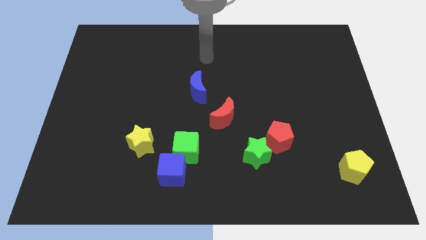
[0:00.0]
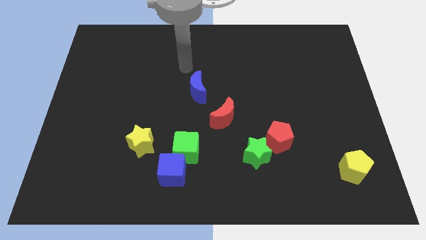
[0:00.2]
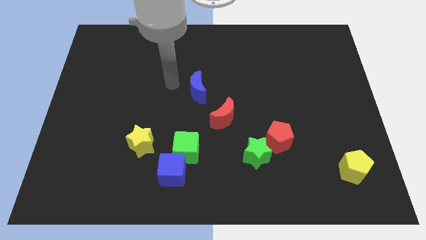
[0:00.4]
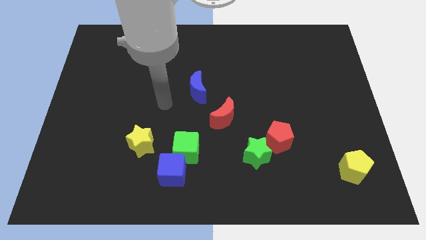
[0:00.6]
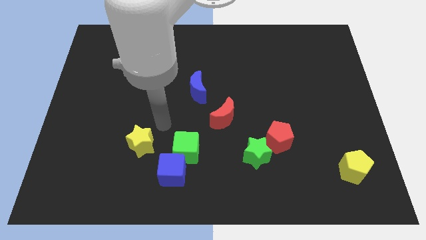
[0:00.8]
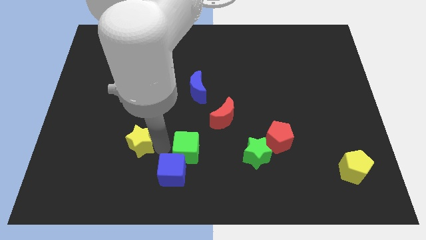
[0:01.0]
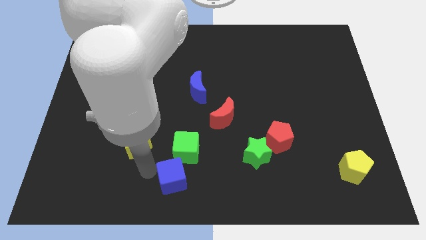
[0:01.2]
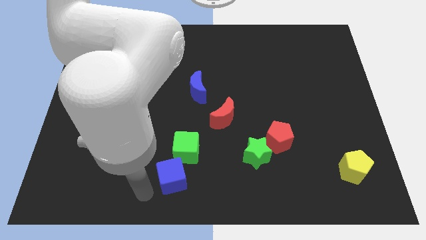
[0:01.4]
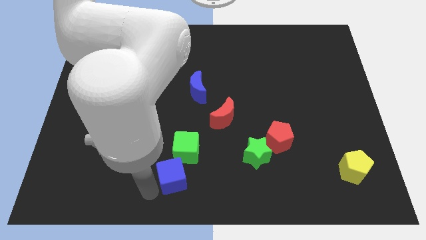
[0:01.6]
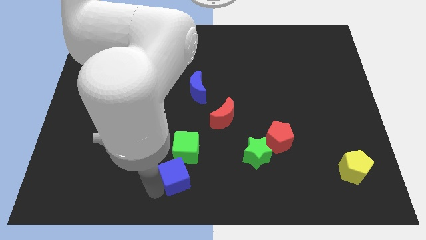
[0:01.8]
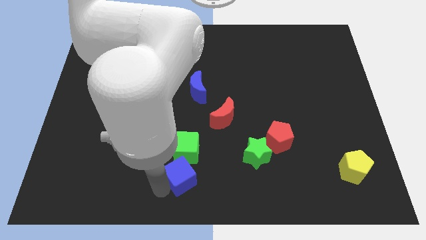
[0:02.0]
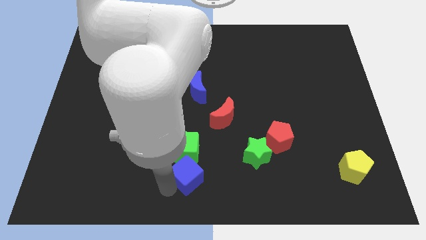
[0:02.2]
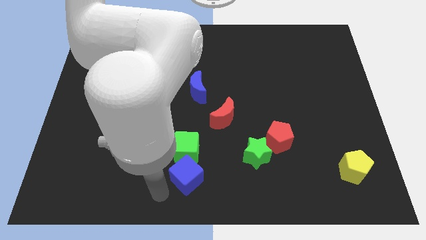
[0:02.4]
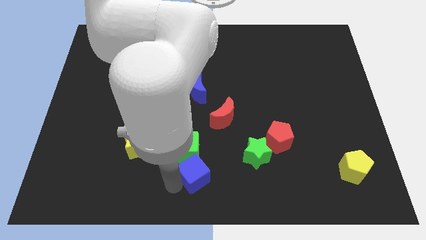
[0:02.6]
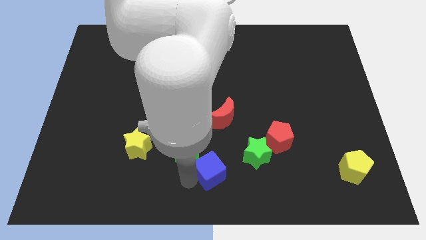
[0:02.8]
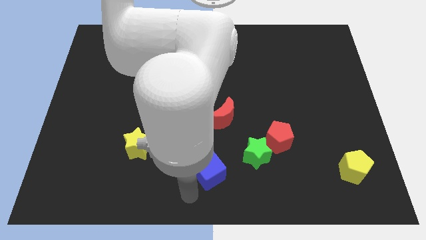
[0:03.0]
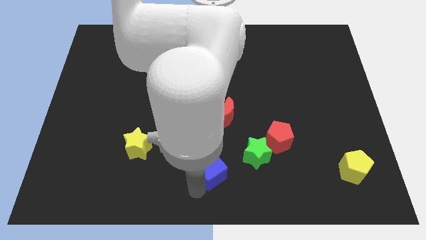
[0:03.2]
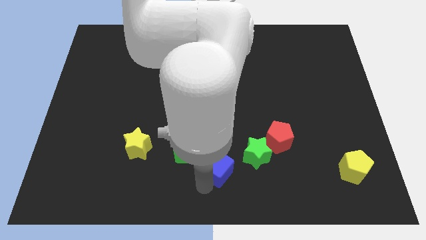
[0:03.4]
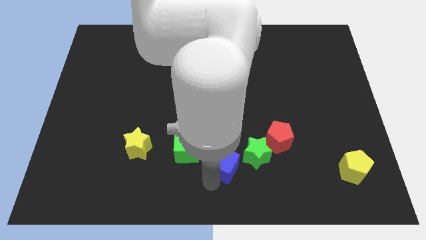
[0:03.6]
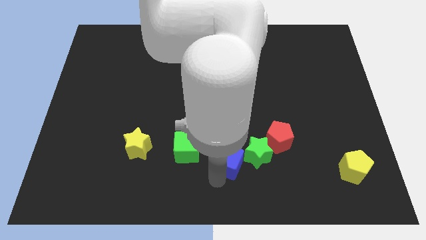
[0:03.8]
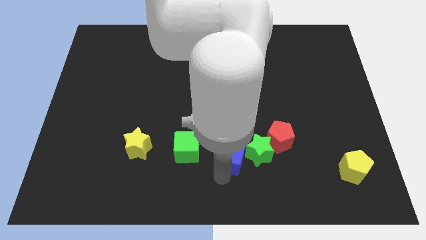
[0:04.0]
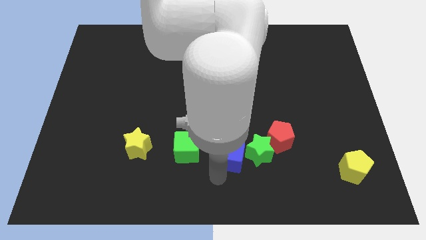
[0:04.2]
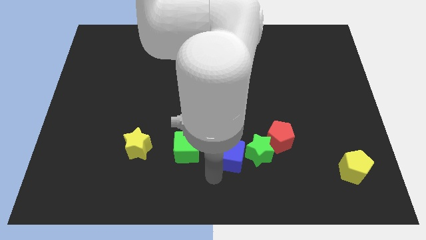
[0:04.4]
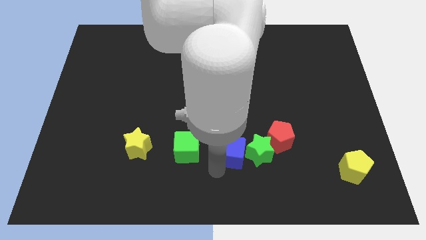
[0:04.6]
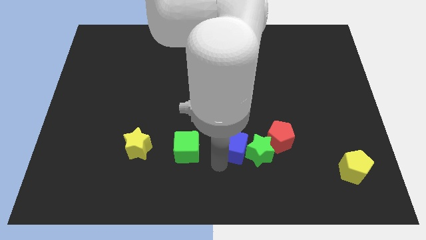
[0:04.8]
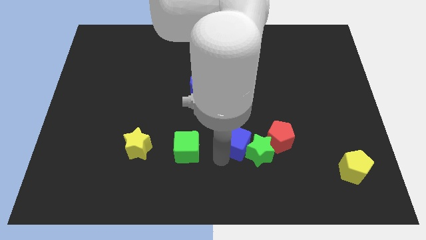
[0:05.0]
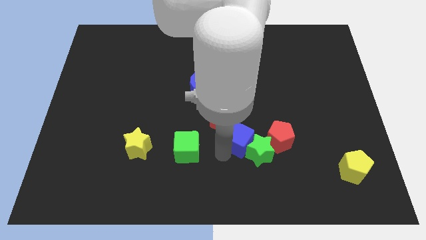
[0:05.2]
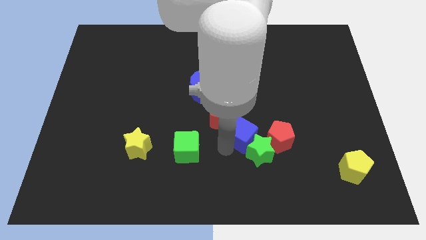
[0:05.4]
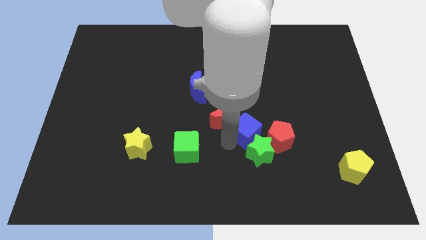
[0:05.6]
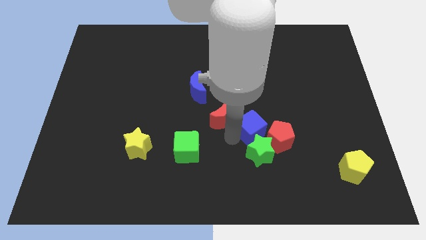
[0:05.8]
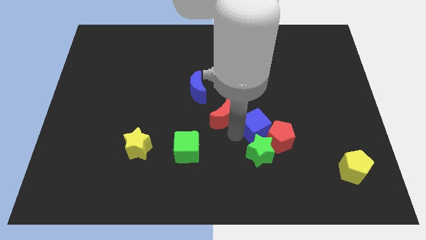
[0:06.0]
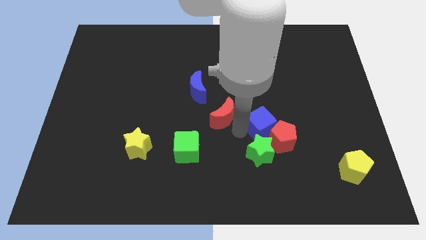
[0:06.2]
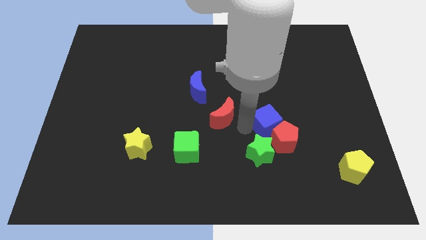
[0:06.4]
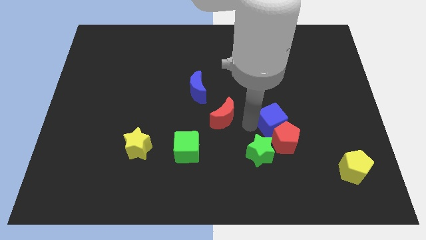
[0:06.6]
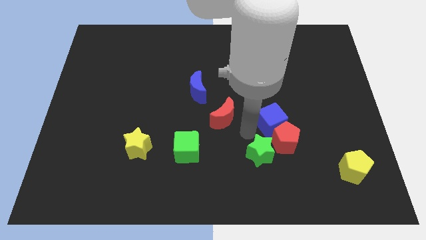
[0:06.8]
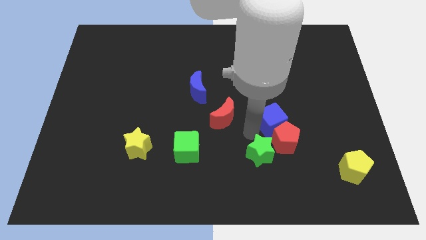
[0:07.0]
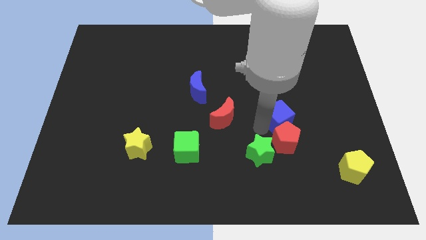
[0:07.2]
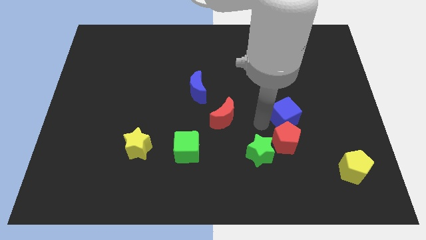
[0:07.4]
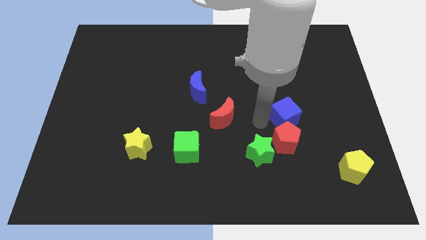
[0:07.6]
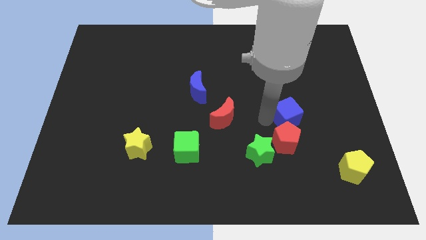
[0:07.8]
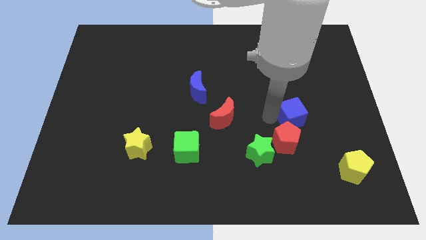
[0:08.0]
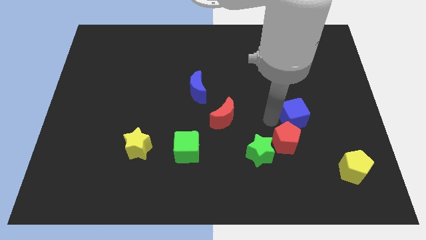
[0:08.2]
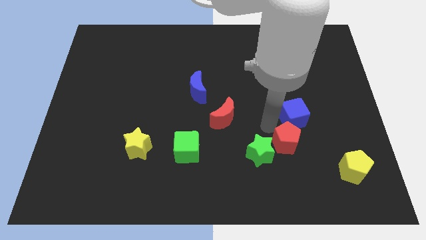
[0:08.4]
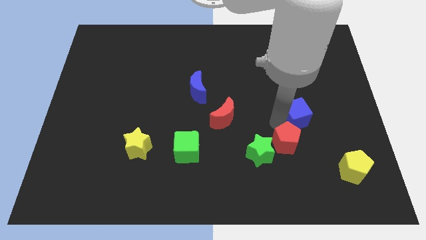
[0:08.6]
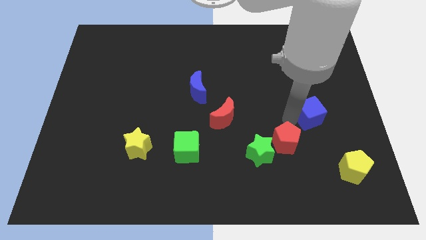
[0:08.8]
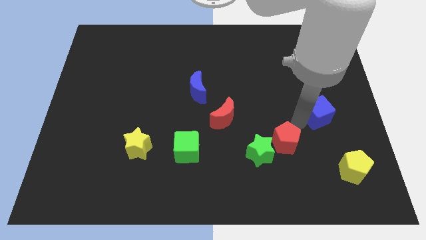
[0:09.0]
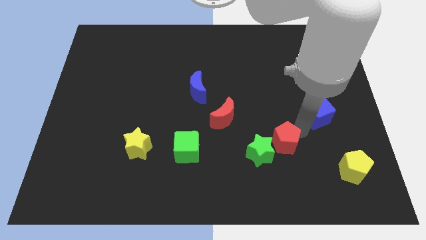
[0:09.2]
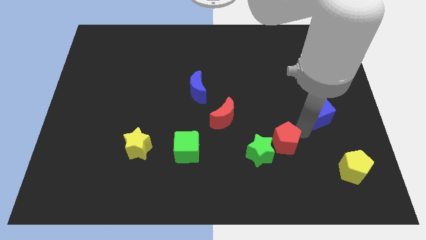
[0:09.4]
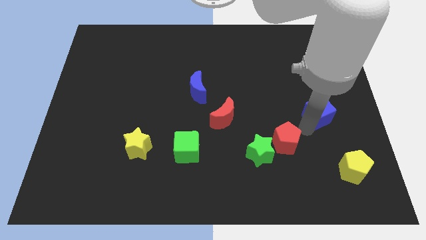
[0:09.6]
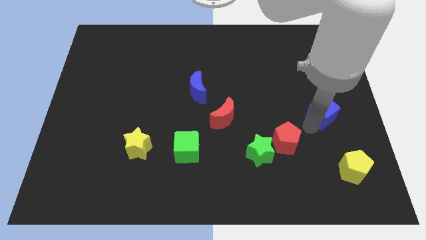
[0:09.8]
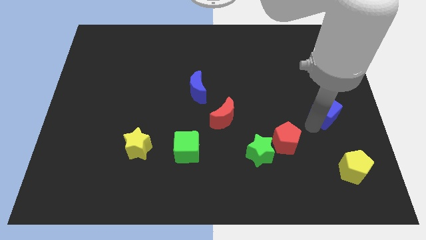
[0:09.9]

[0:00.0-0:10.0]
push the blue cube to the right side

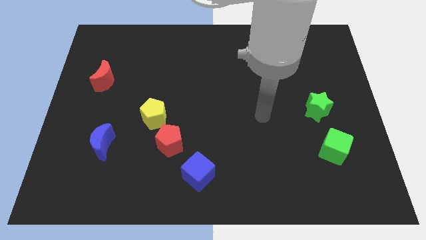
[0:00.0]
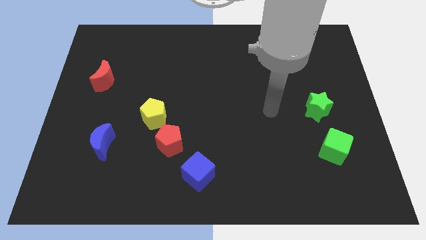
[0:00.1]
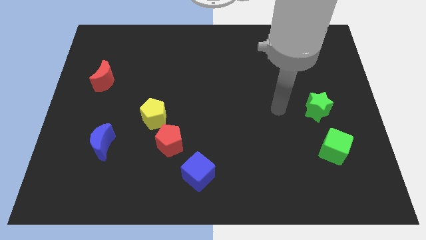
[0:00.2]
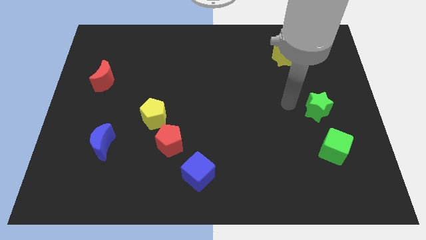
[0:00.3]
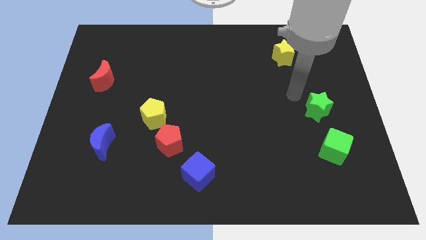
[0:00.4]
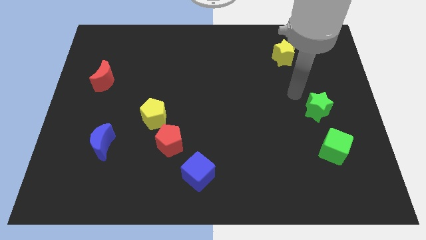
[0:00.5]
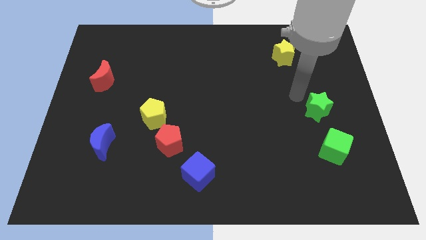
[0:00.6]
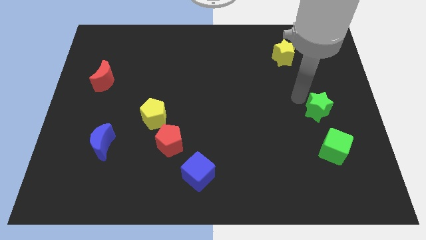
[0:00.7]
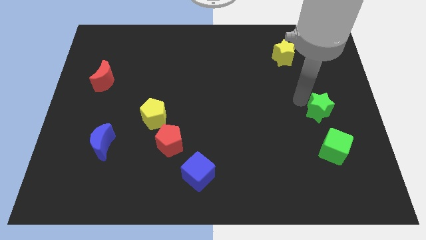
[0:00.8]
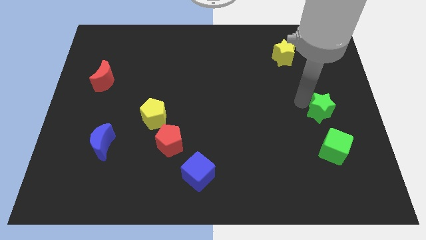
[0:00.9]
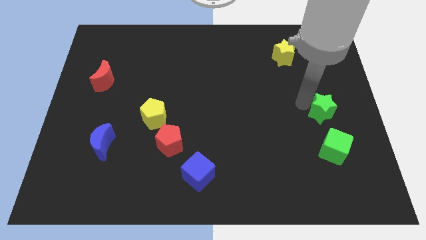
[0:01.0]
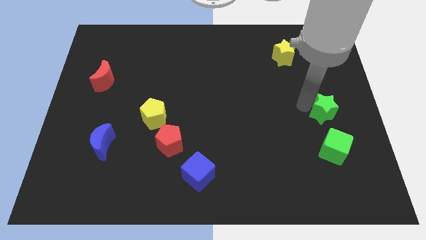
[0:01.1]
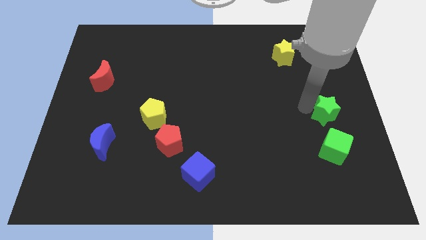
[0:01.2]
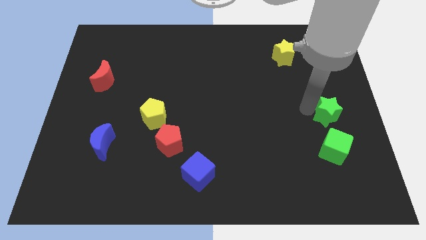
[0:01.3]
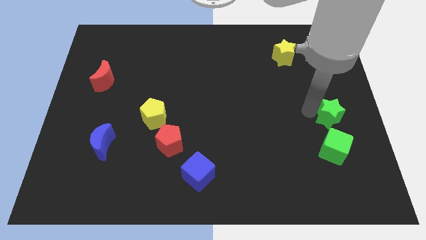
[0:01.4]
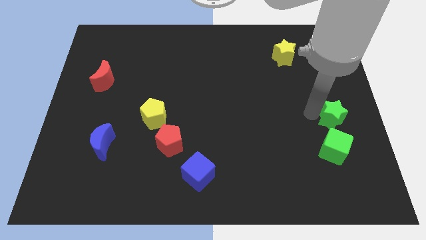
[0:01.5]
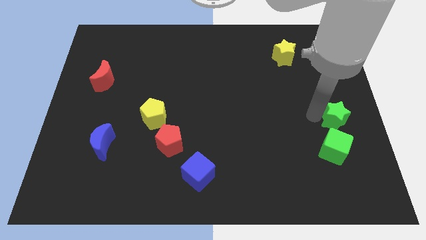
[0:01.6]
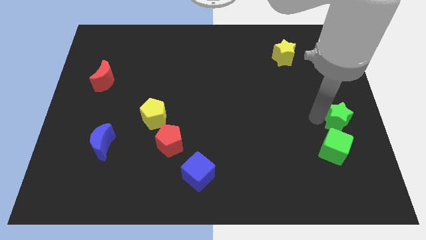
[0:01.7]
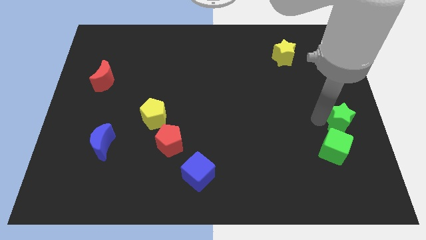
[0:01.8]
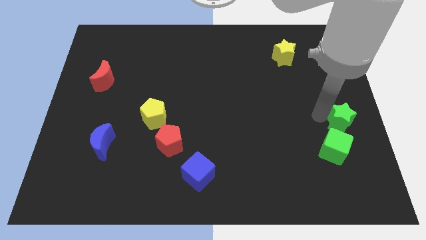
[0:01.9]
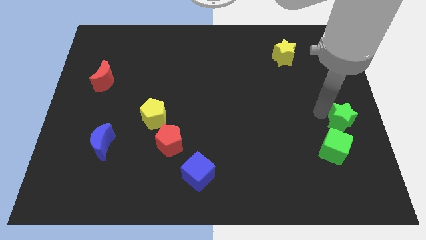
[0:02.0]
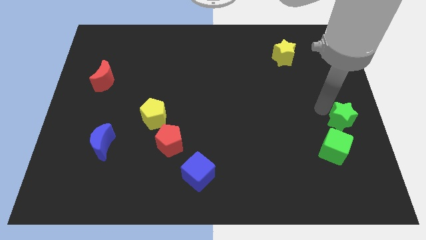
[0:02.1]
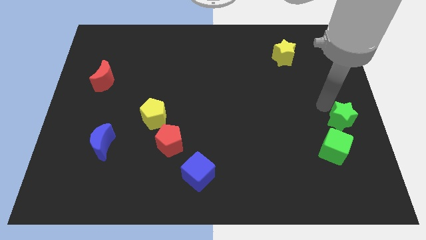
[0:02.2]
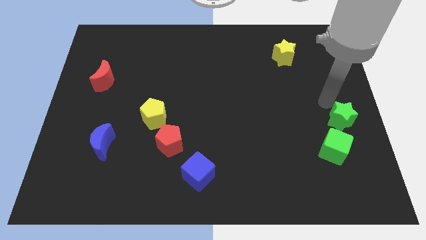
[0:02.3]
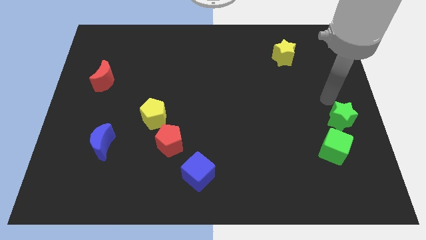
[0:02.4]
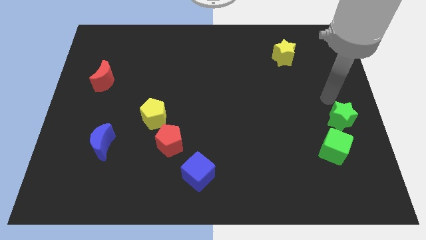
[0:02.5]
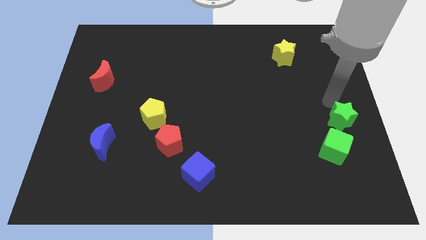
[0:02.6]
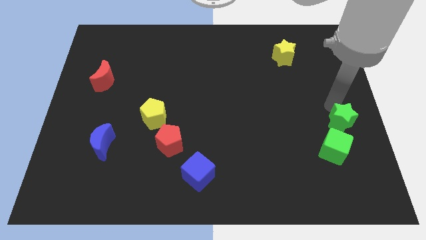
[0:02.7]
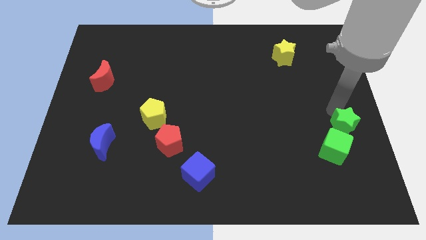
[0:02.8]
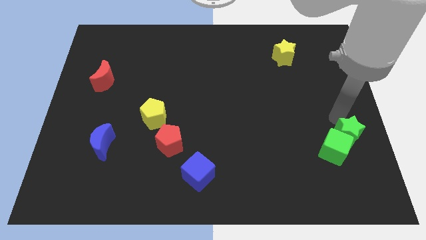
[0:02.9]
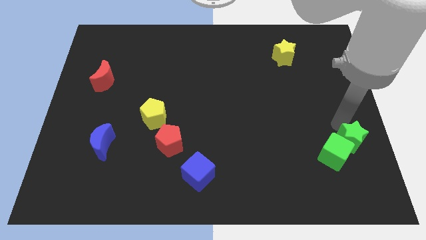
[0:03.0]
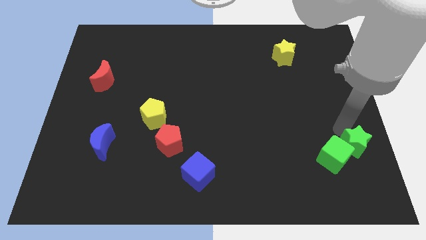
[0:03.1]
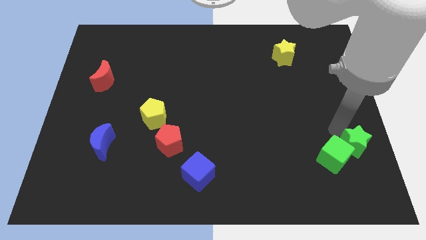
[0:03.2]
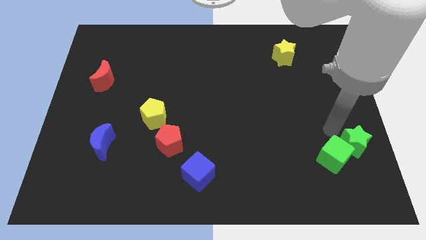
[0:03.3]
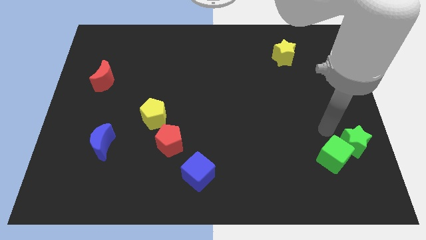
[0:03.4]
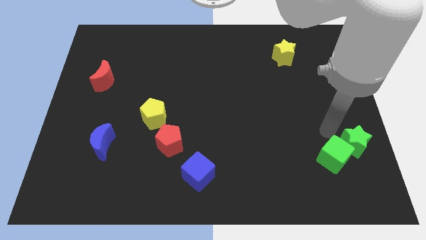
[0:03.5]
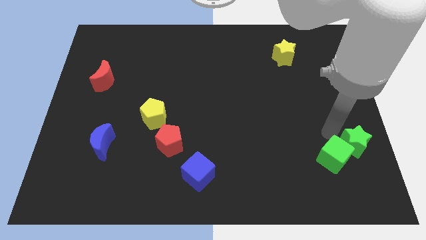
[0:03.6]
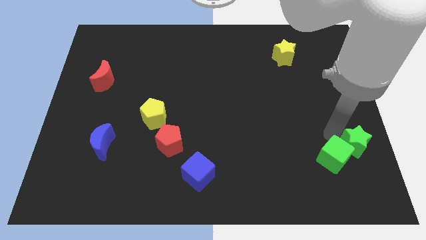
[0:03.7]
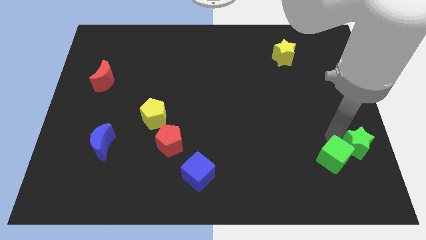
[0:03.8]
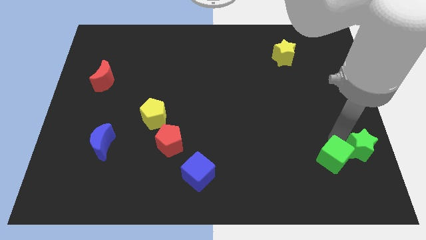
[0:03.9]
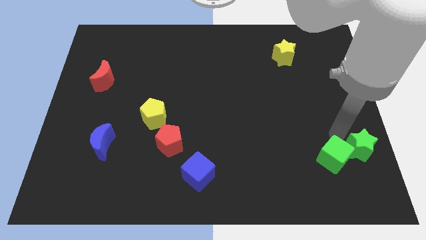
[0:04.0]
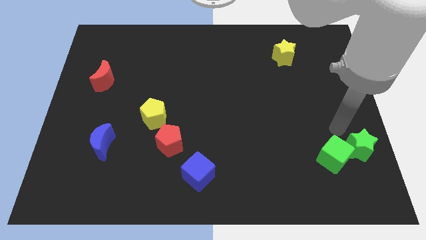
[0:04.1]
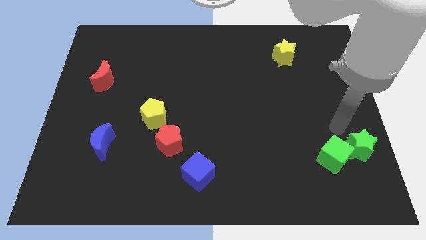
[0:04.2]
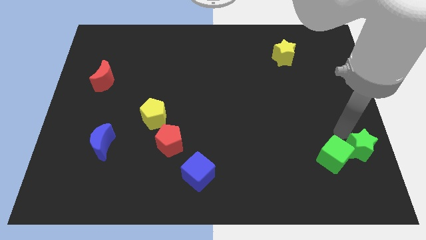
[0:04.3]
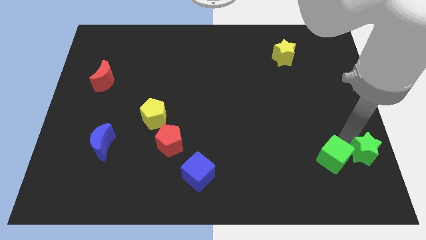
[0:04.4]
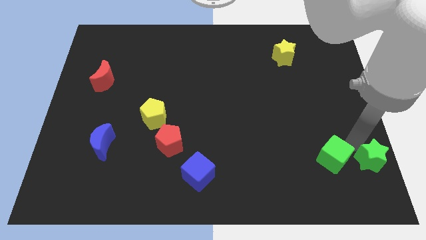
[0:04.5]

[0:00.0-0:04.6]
put the green star to the bottom right
